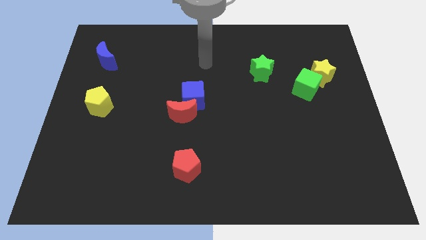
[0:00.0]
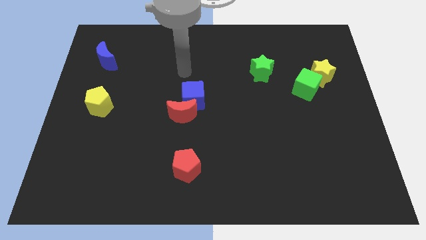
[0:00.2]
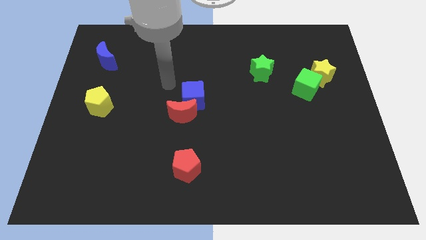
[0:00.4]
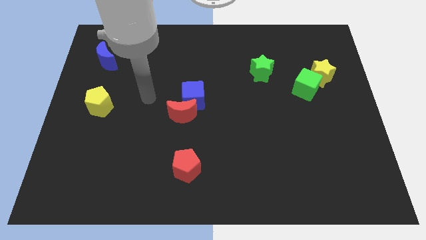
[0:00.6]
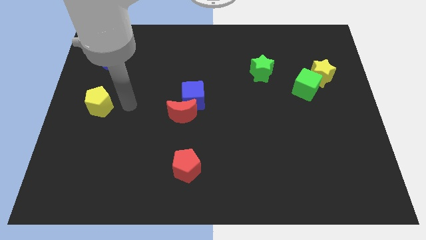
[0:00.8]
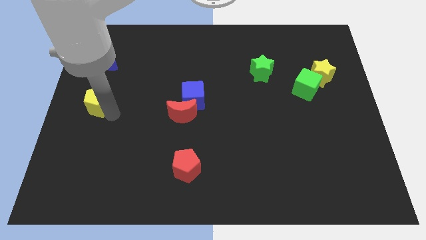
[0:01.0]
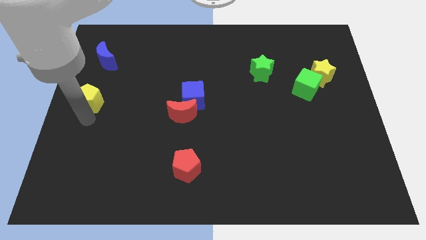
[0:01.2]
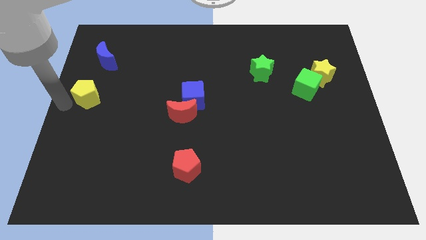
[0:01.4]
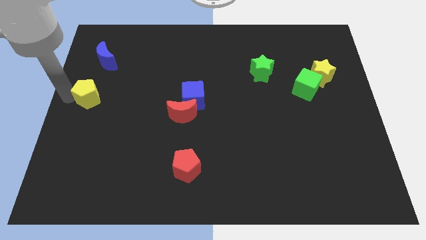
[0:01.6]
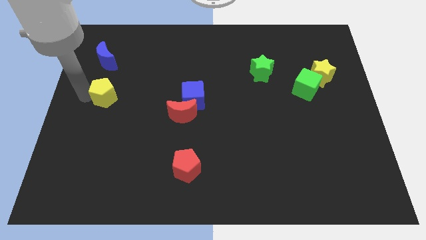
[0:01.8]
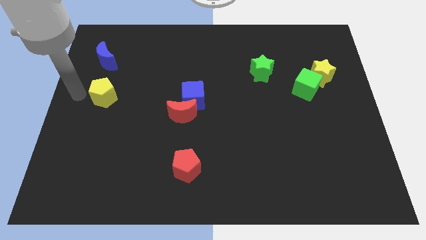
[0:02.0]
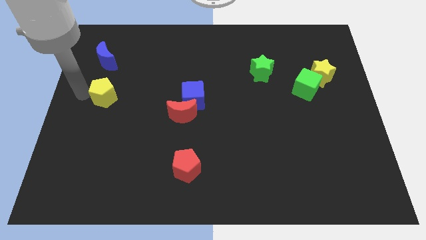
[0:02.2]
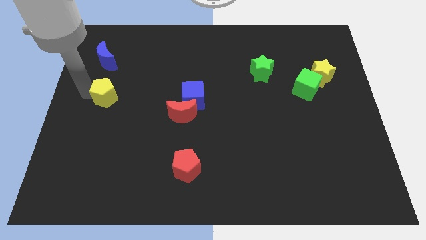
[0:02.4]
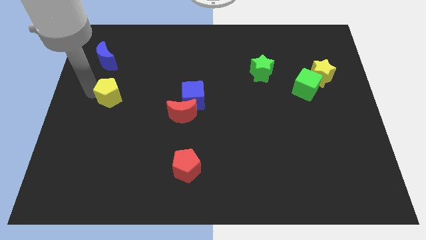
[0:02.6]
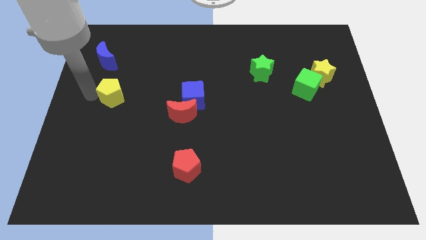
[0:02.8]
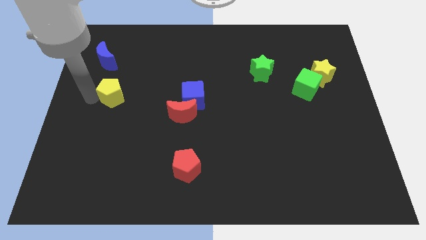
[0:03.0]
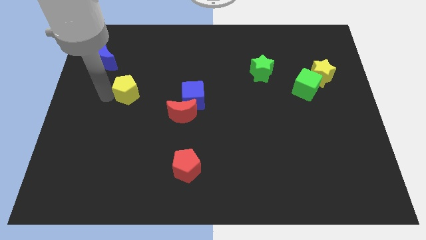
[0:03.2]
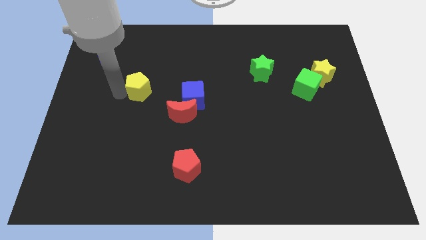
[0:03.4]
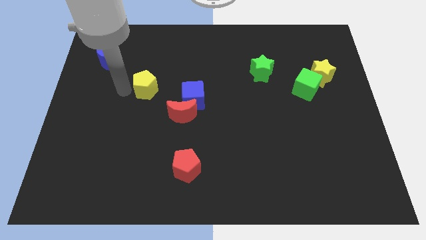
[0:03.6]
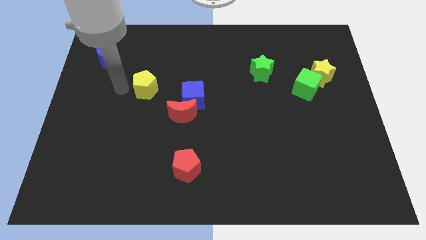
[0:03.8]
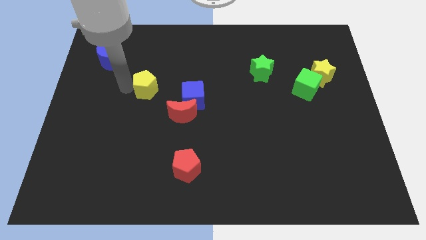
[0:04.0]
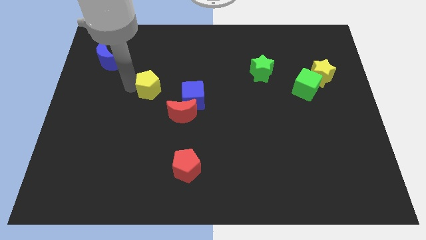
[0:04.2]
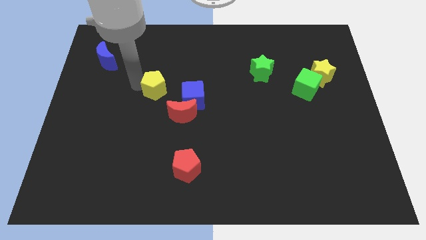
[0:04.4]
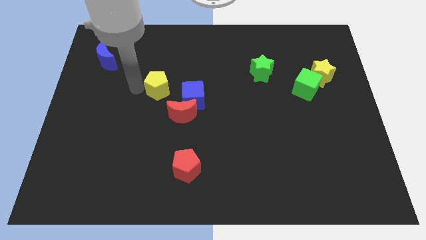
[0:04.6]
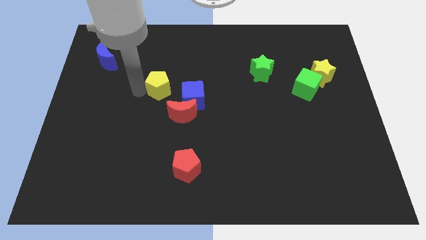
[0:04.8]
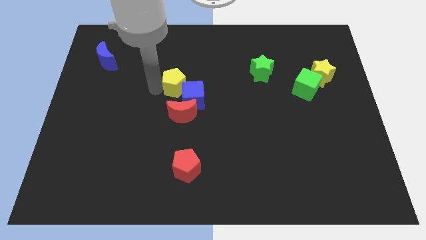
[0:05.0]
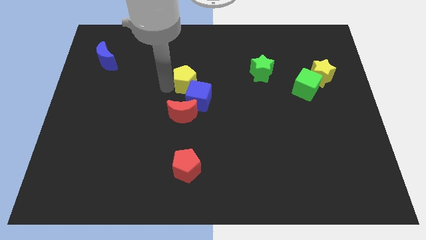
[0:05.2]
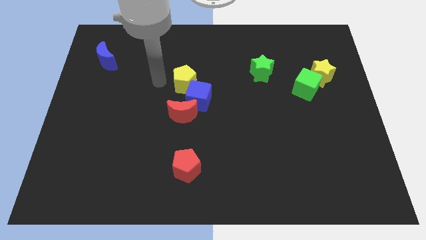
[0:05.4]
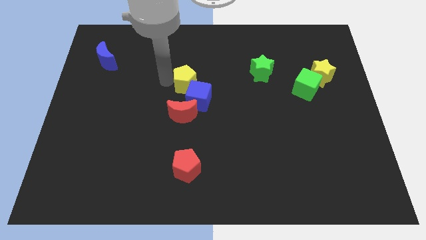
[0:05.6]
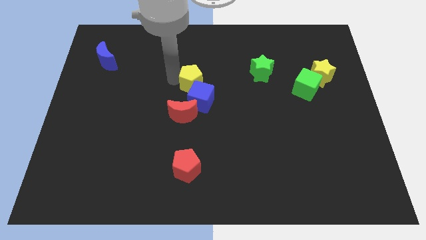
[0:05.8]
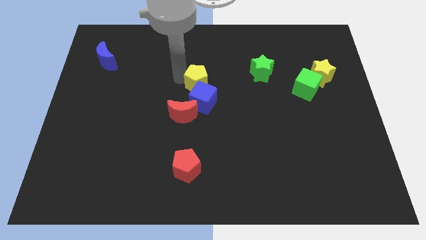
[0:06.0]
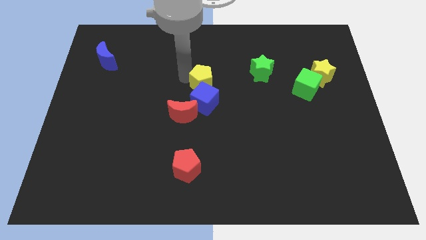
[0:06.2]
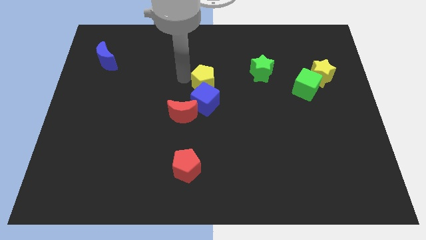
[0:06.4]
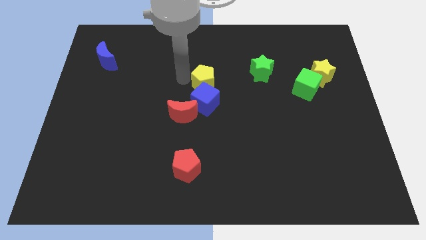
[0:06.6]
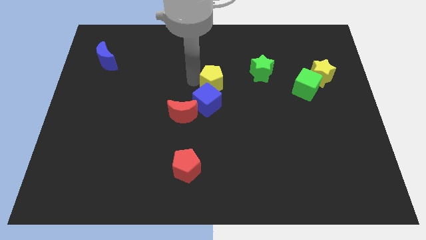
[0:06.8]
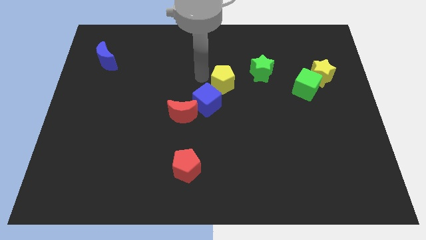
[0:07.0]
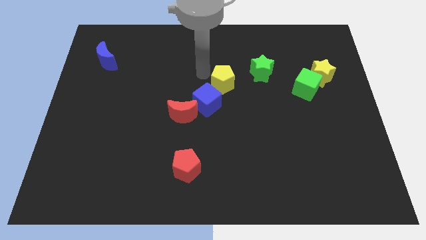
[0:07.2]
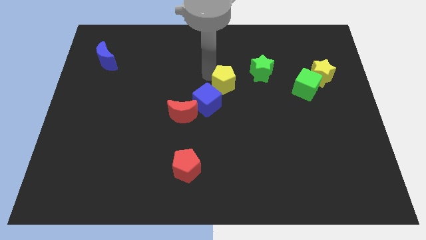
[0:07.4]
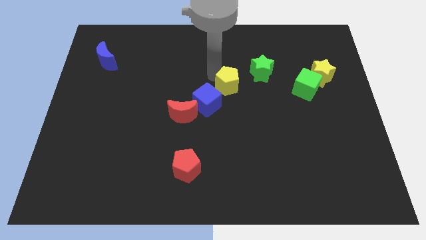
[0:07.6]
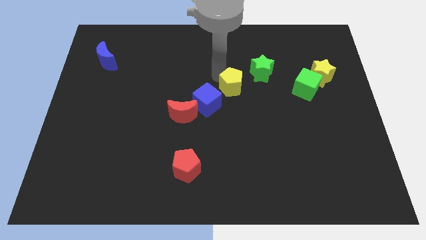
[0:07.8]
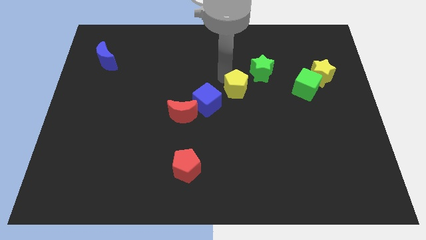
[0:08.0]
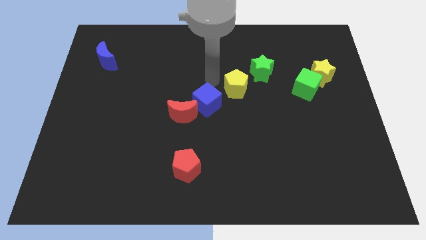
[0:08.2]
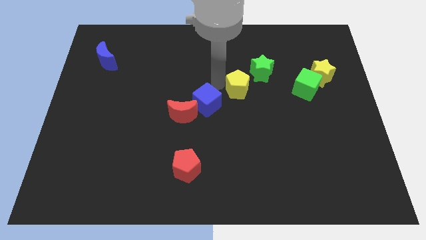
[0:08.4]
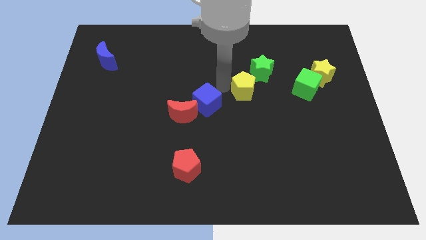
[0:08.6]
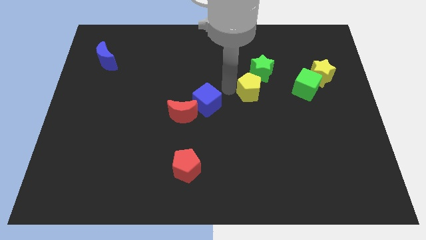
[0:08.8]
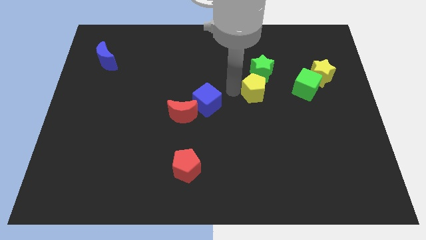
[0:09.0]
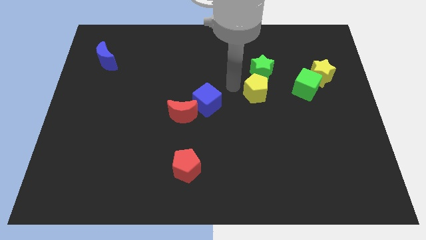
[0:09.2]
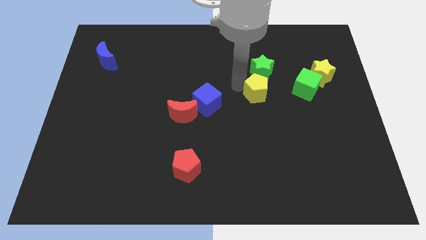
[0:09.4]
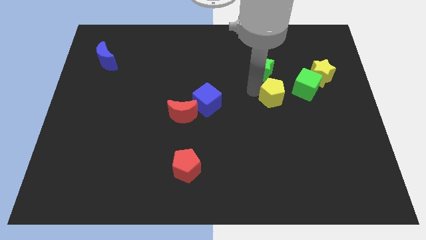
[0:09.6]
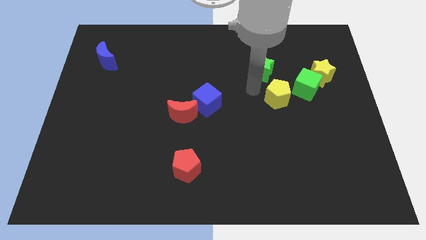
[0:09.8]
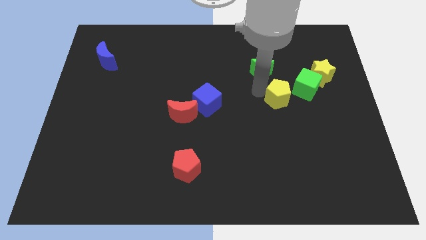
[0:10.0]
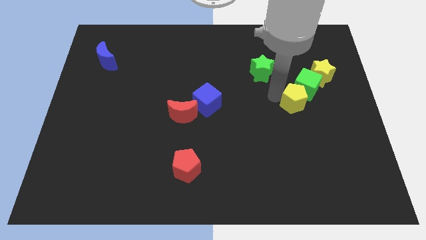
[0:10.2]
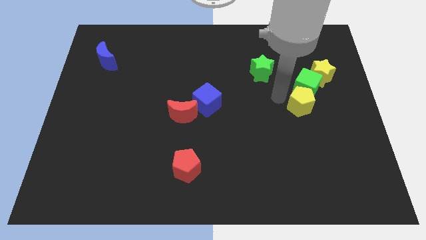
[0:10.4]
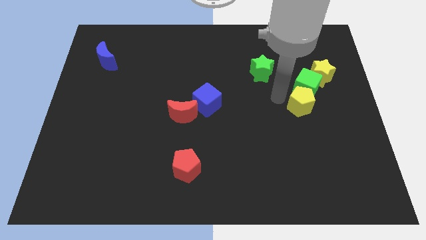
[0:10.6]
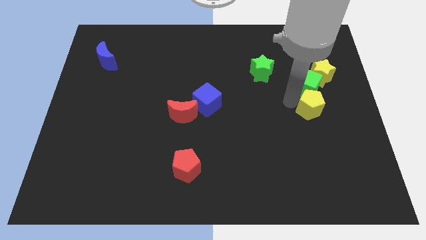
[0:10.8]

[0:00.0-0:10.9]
move the yellow pentagon to the bottom of the yellow star
